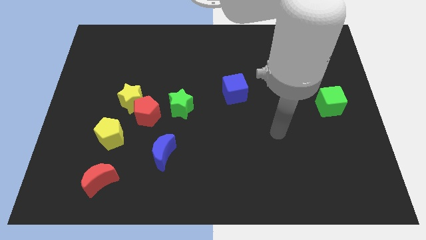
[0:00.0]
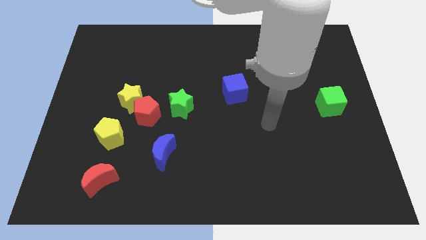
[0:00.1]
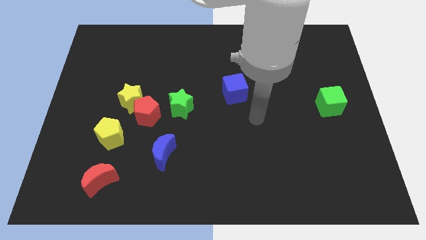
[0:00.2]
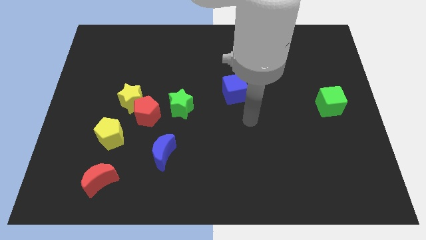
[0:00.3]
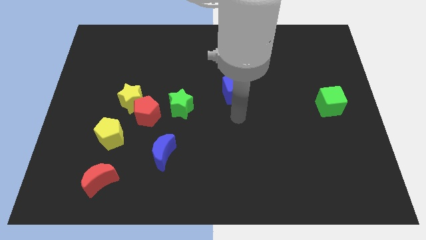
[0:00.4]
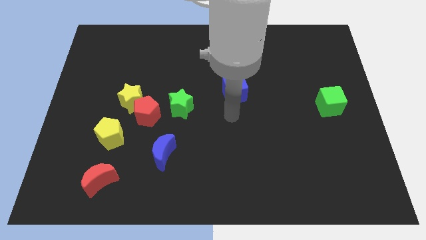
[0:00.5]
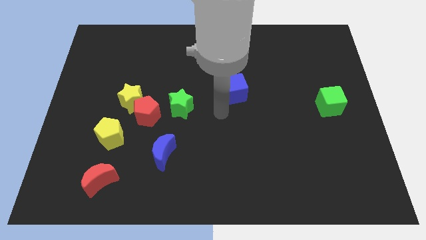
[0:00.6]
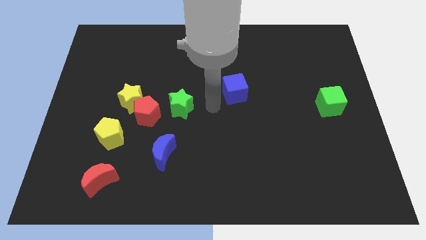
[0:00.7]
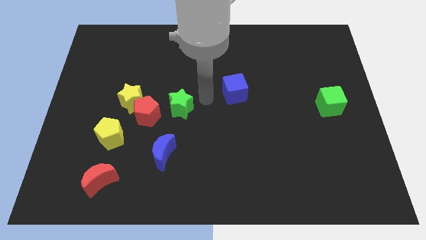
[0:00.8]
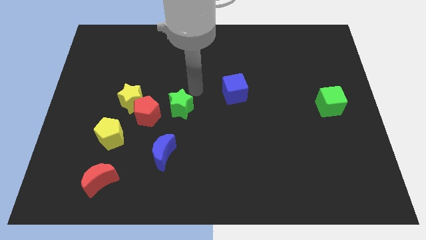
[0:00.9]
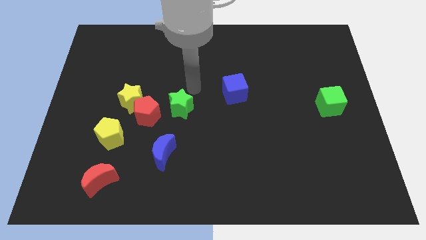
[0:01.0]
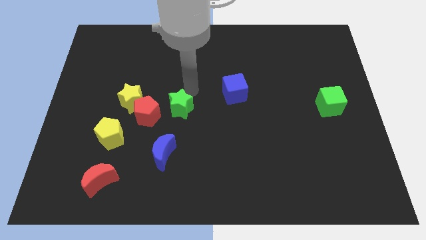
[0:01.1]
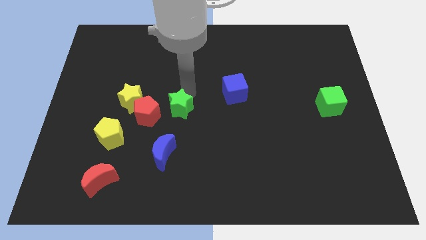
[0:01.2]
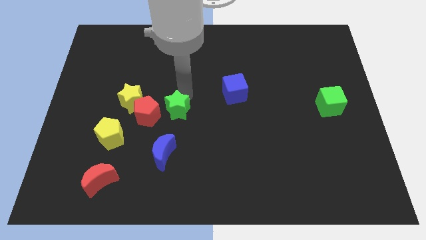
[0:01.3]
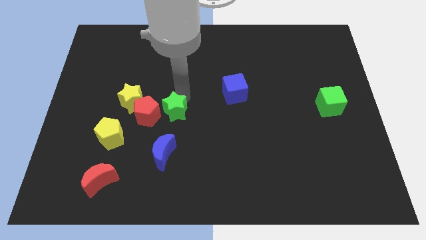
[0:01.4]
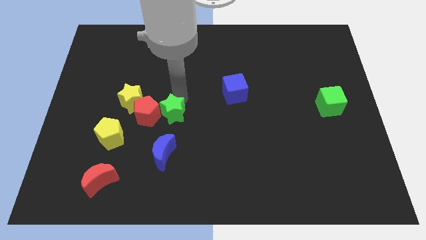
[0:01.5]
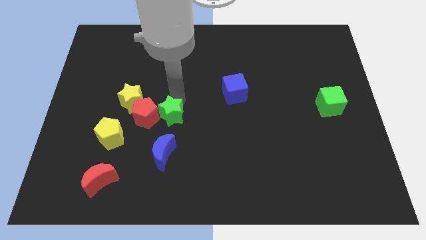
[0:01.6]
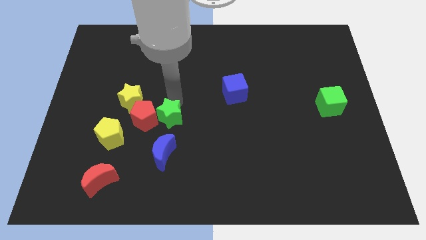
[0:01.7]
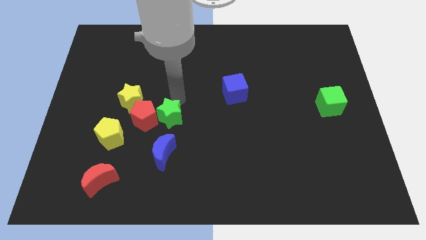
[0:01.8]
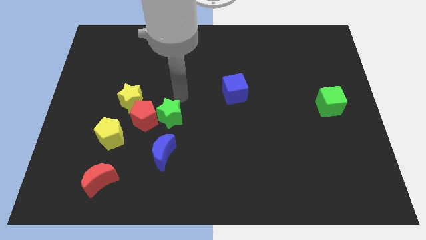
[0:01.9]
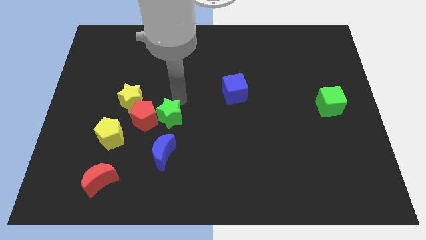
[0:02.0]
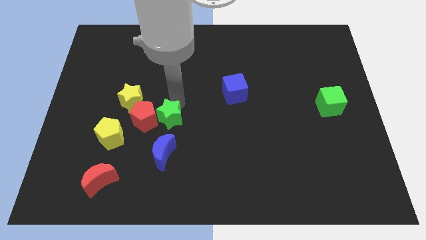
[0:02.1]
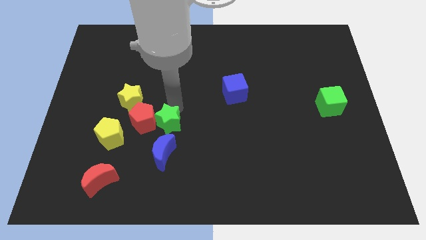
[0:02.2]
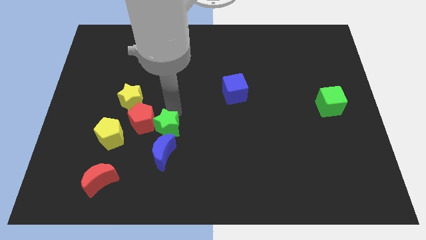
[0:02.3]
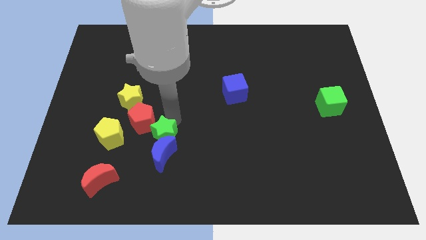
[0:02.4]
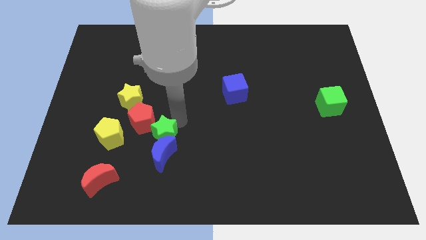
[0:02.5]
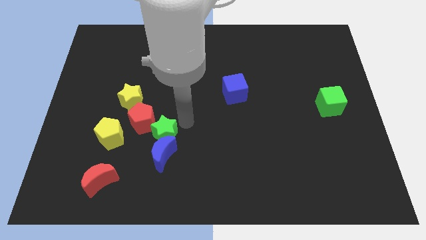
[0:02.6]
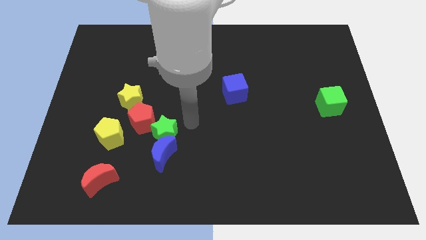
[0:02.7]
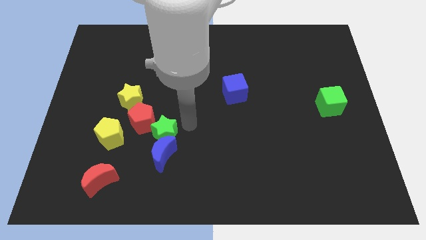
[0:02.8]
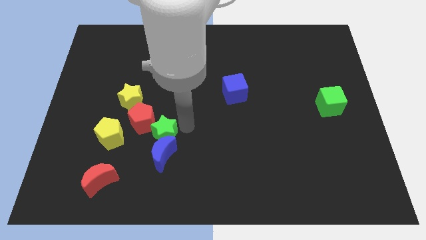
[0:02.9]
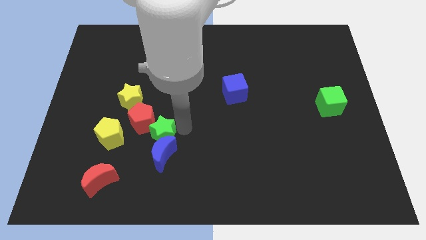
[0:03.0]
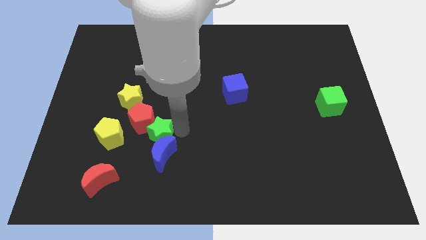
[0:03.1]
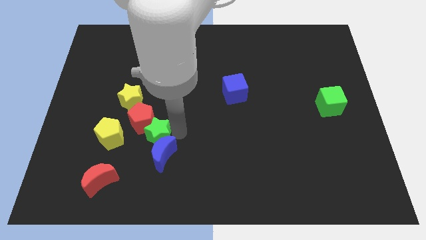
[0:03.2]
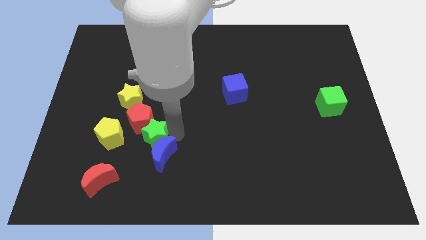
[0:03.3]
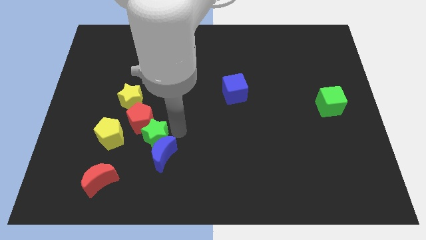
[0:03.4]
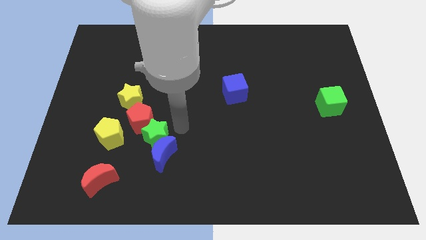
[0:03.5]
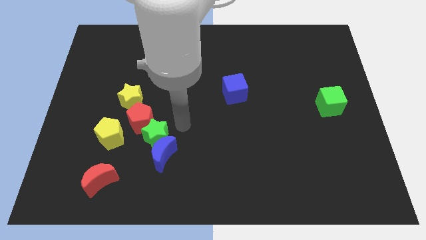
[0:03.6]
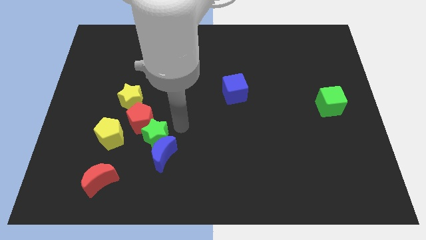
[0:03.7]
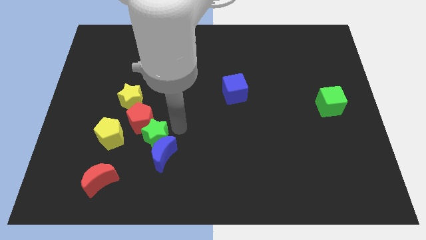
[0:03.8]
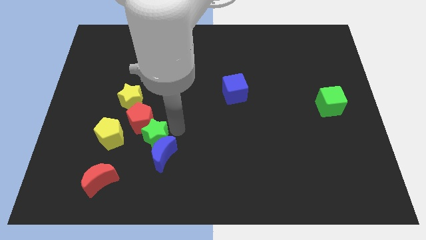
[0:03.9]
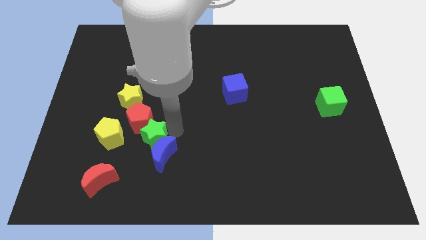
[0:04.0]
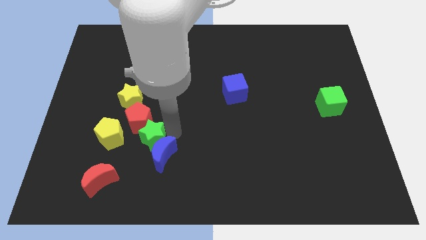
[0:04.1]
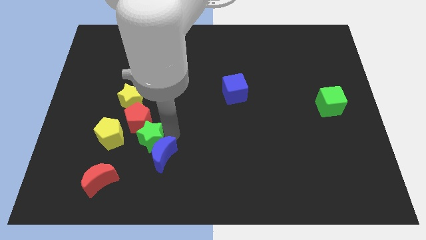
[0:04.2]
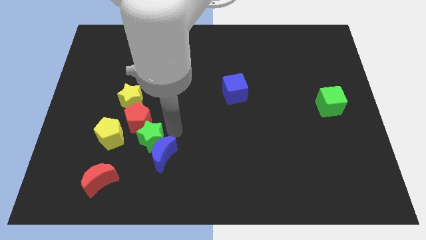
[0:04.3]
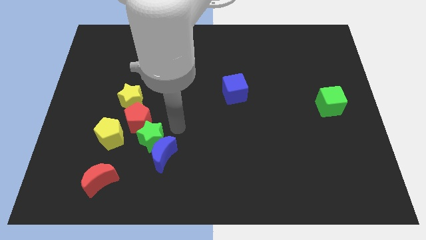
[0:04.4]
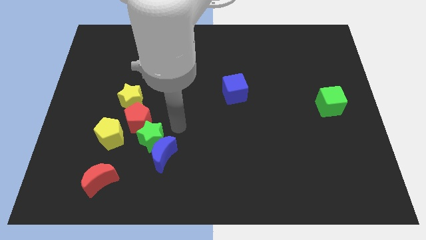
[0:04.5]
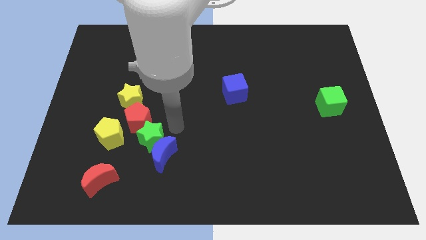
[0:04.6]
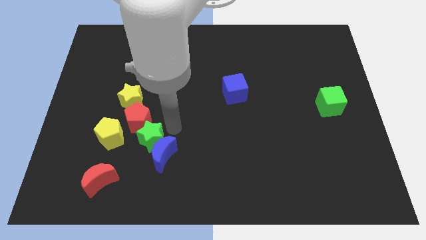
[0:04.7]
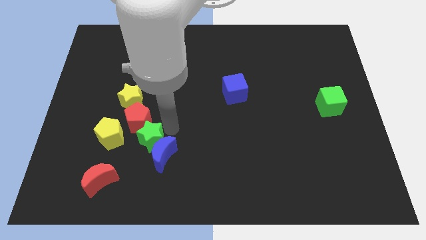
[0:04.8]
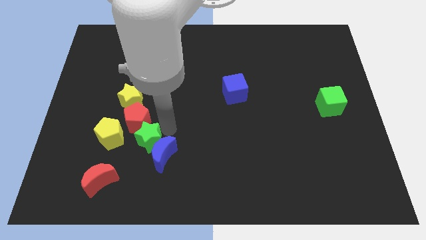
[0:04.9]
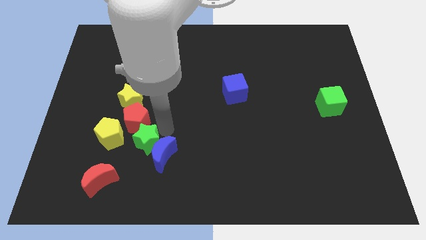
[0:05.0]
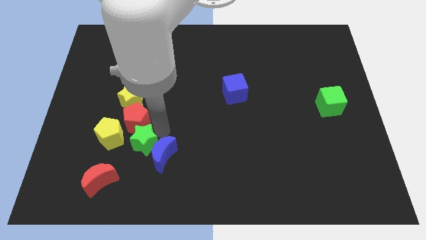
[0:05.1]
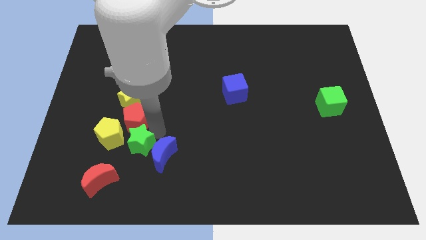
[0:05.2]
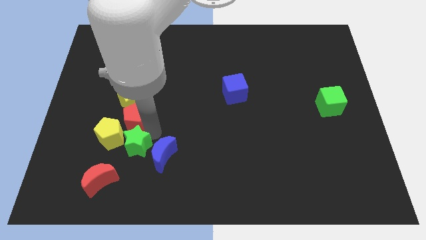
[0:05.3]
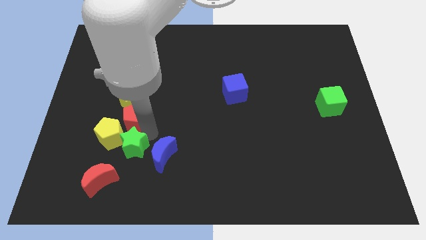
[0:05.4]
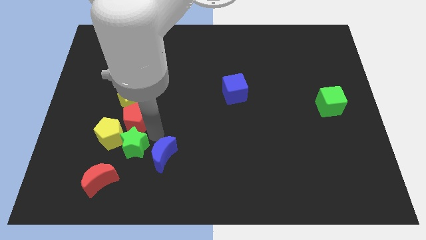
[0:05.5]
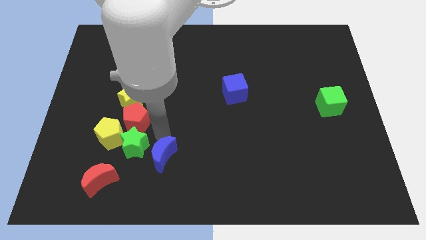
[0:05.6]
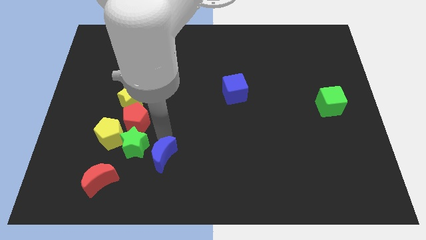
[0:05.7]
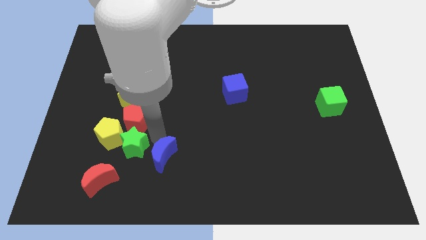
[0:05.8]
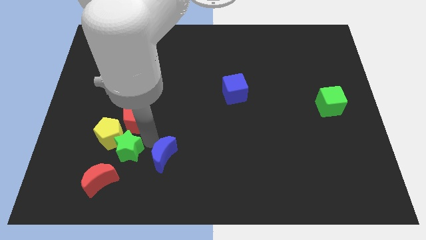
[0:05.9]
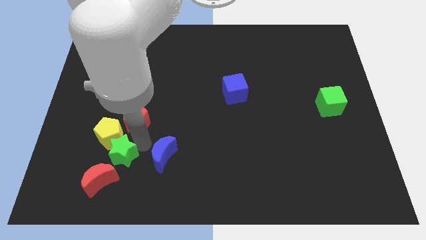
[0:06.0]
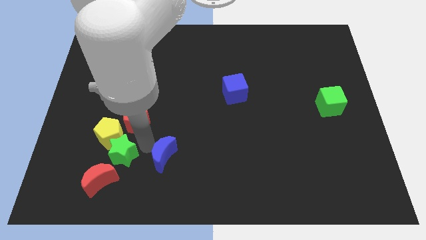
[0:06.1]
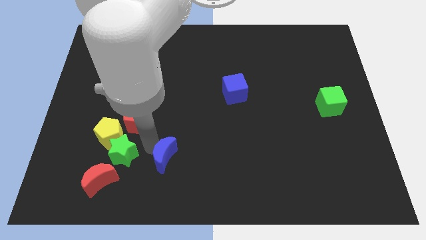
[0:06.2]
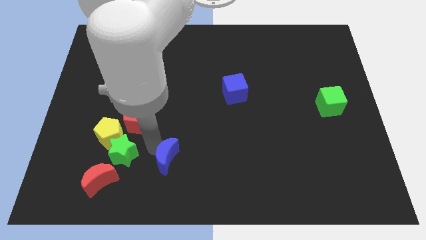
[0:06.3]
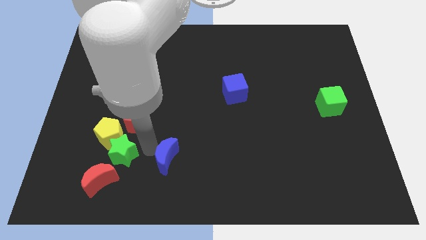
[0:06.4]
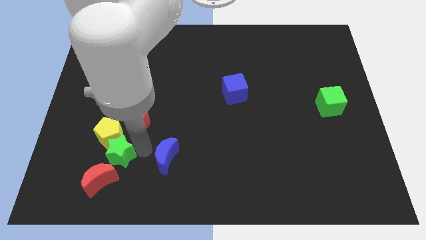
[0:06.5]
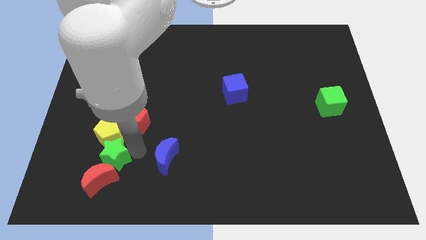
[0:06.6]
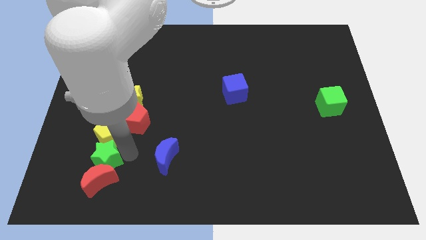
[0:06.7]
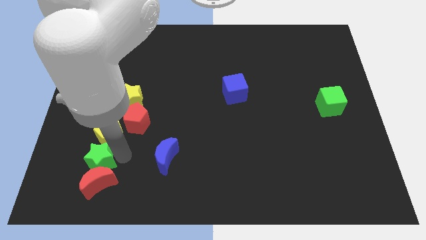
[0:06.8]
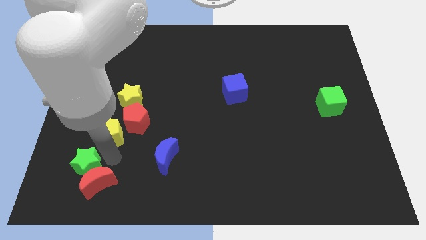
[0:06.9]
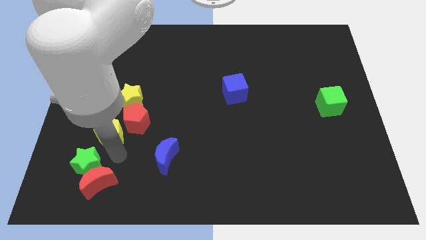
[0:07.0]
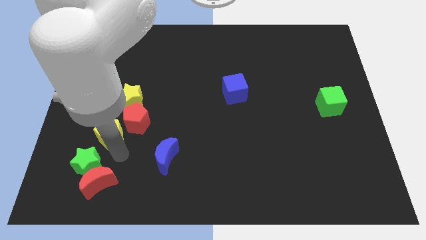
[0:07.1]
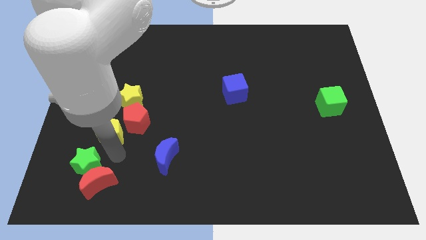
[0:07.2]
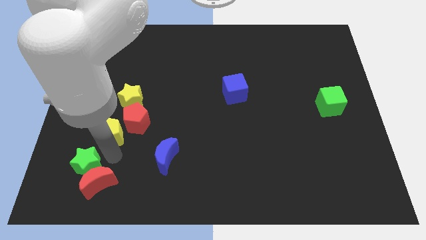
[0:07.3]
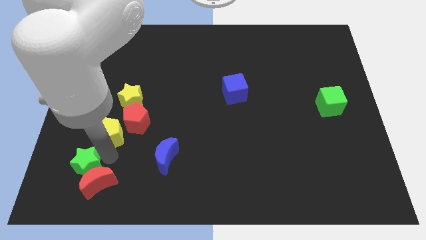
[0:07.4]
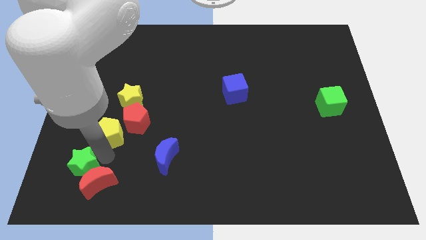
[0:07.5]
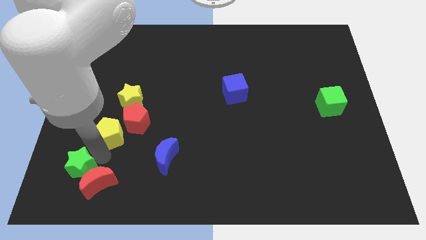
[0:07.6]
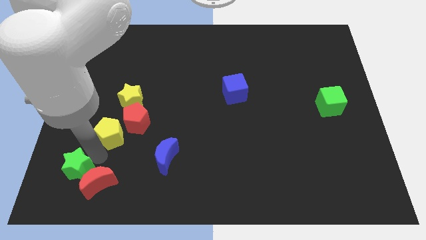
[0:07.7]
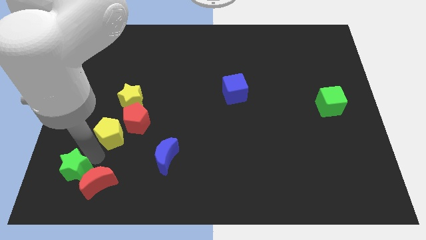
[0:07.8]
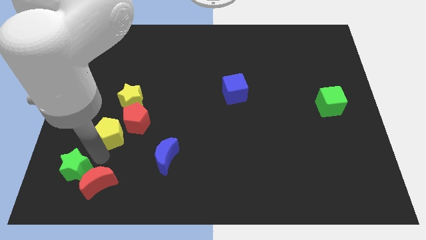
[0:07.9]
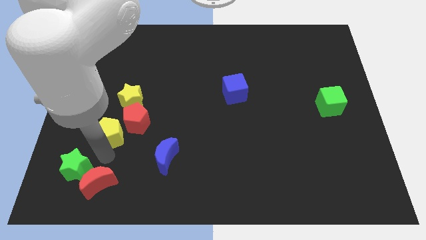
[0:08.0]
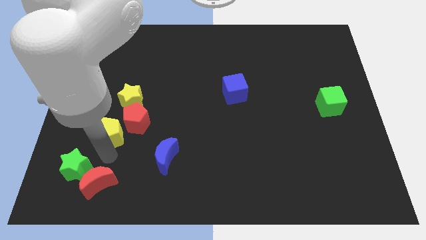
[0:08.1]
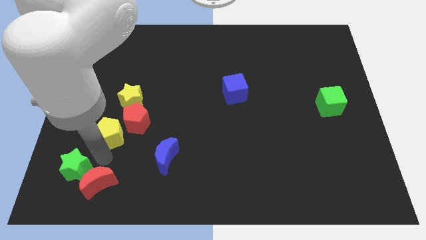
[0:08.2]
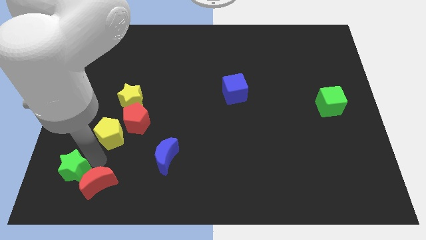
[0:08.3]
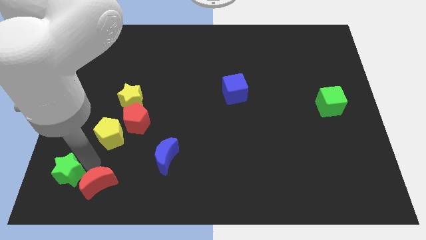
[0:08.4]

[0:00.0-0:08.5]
push the green star to the bottom left of the board
